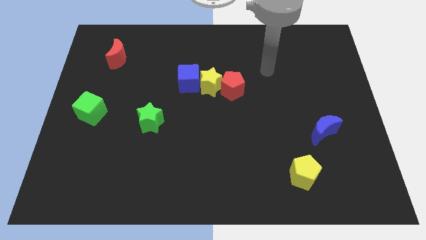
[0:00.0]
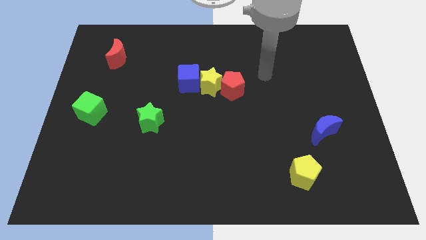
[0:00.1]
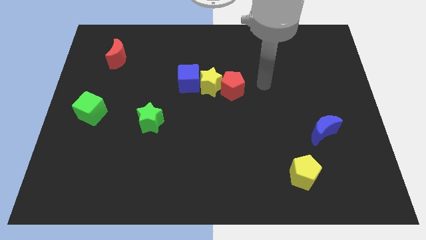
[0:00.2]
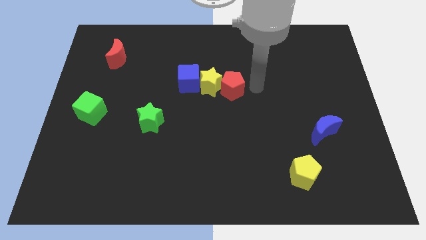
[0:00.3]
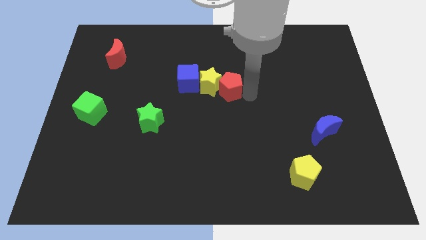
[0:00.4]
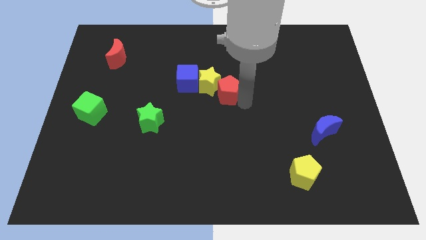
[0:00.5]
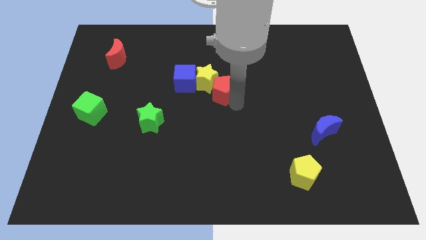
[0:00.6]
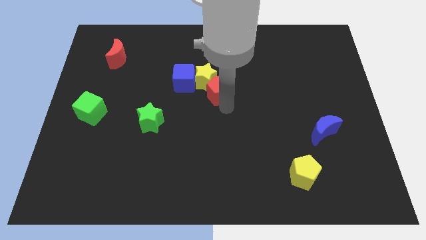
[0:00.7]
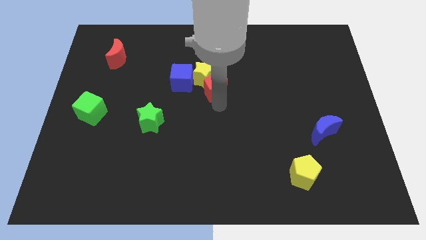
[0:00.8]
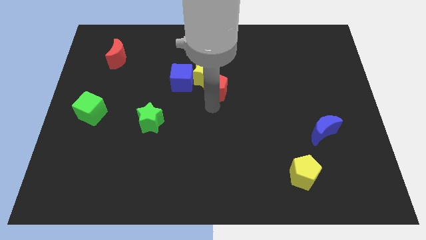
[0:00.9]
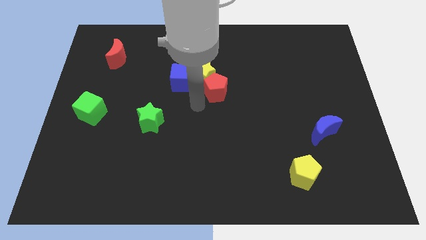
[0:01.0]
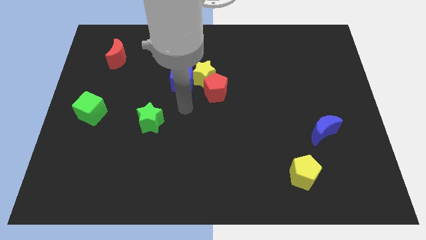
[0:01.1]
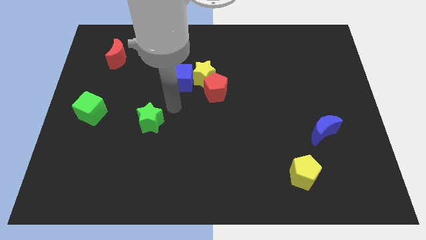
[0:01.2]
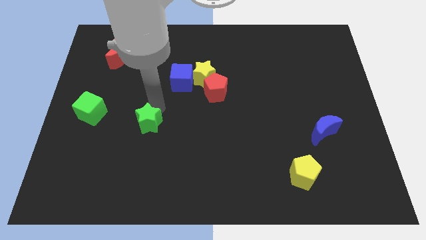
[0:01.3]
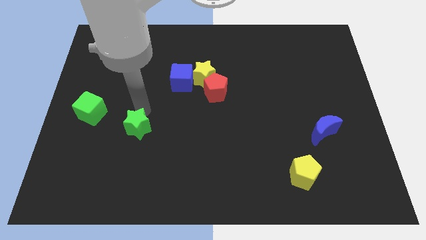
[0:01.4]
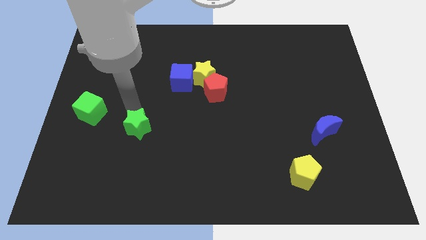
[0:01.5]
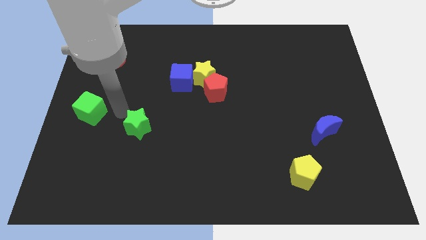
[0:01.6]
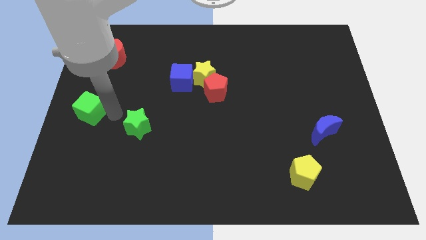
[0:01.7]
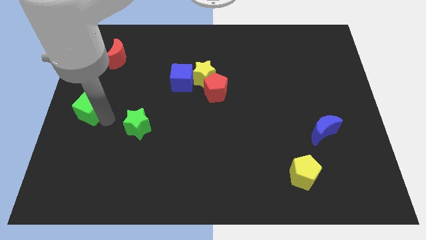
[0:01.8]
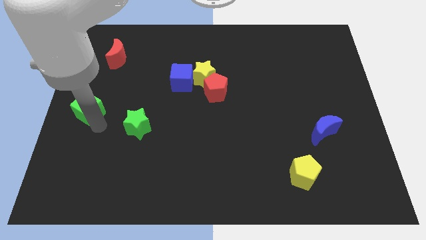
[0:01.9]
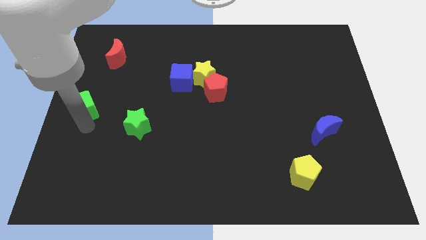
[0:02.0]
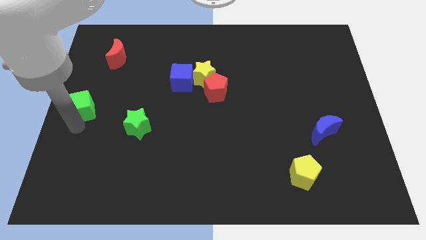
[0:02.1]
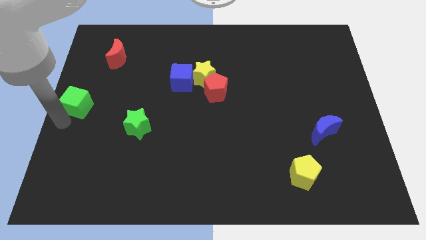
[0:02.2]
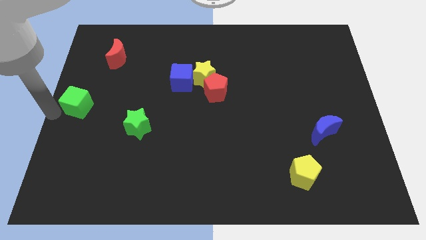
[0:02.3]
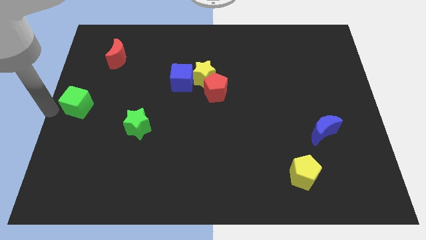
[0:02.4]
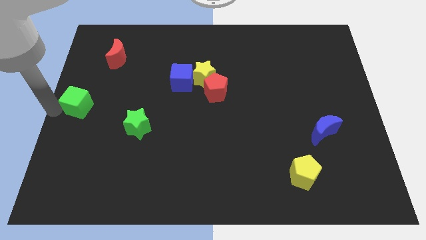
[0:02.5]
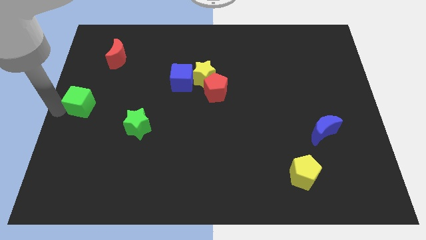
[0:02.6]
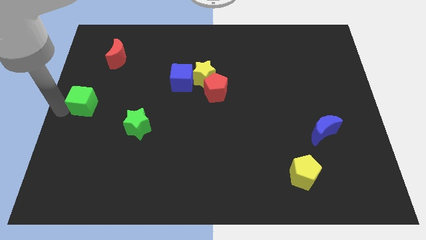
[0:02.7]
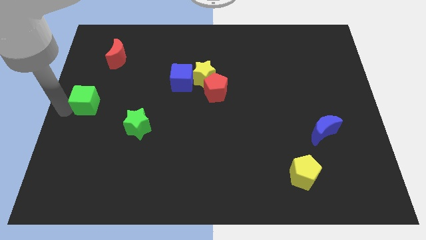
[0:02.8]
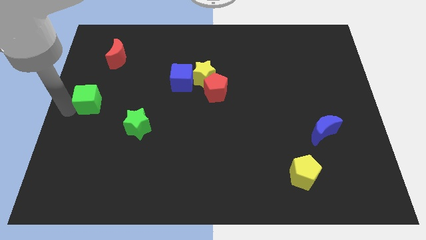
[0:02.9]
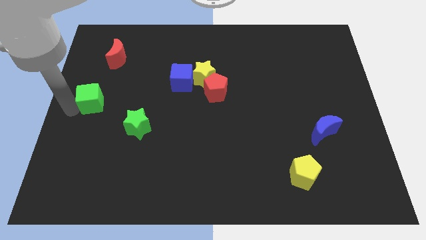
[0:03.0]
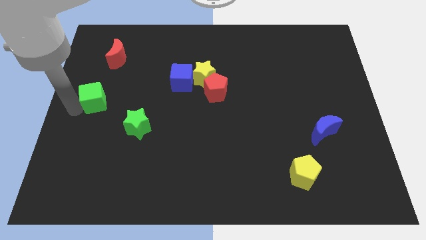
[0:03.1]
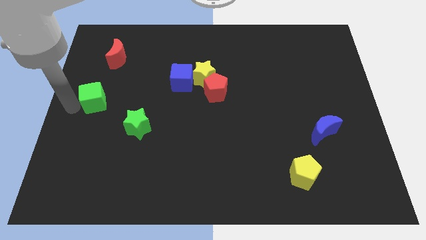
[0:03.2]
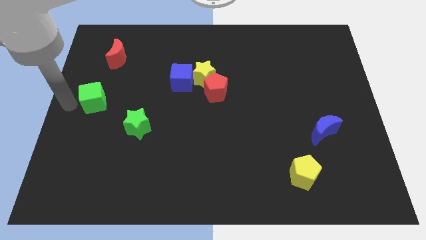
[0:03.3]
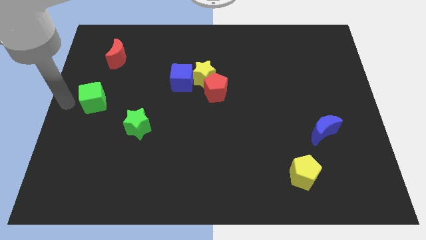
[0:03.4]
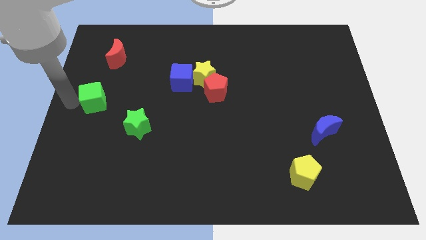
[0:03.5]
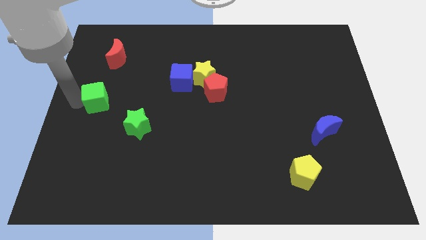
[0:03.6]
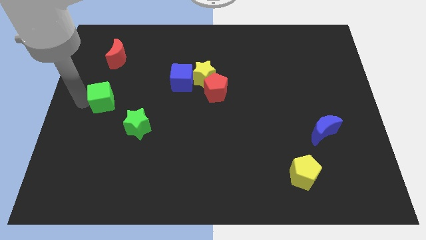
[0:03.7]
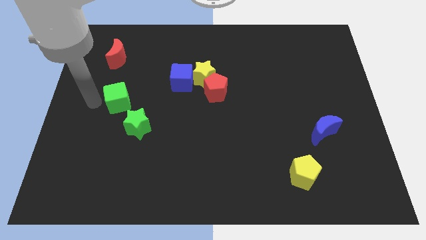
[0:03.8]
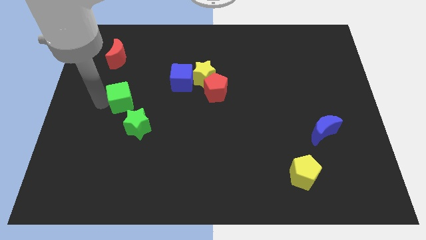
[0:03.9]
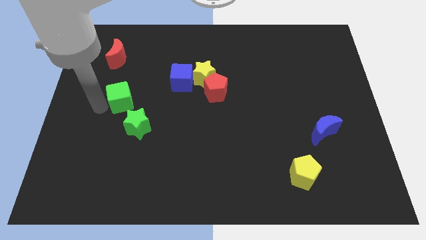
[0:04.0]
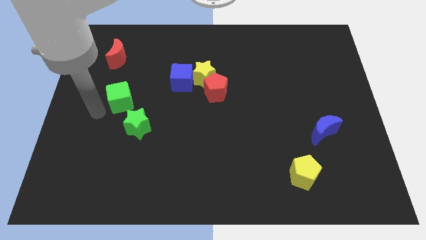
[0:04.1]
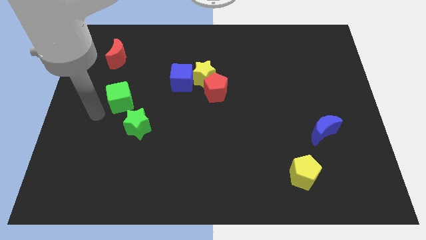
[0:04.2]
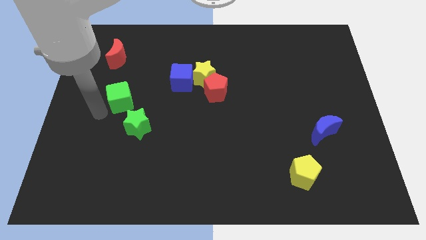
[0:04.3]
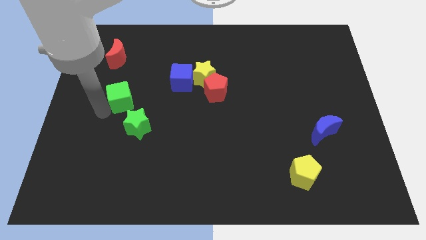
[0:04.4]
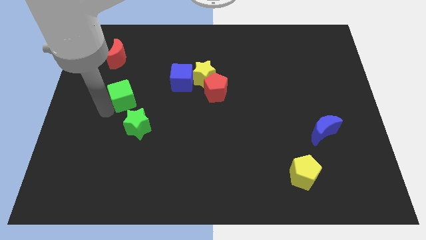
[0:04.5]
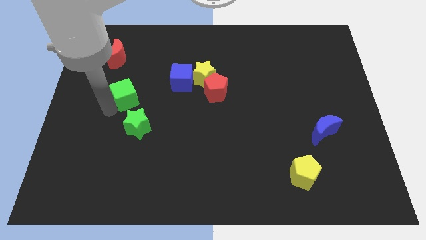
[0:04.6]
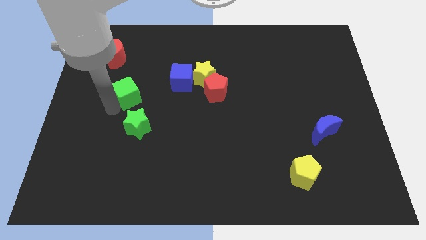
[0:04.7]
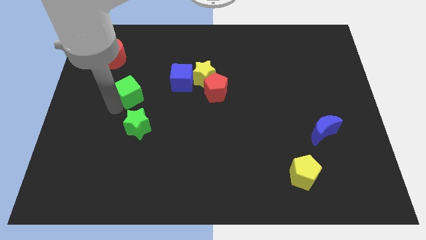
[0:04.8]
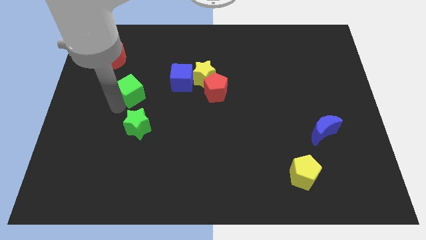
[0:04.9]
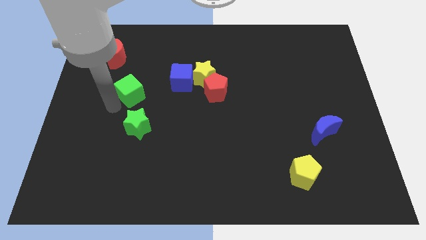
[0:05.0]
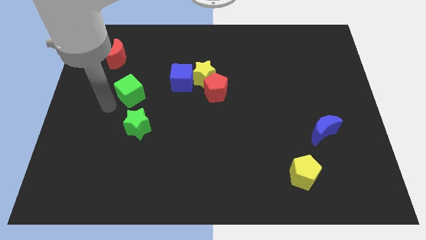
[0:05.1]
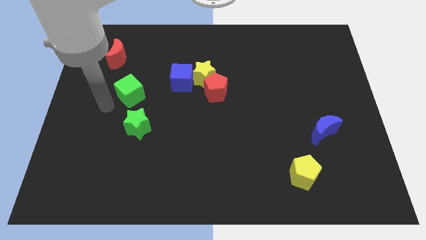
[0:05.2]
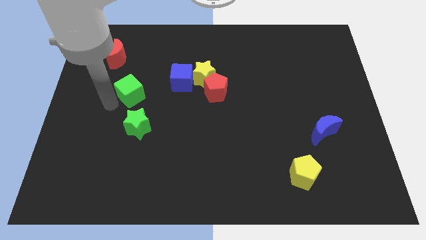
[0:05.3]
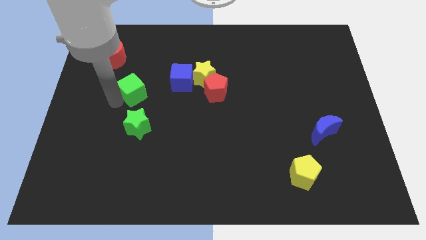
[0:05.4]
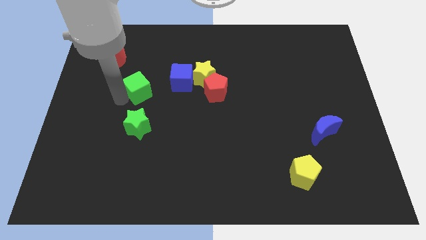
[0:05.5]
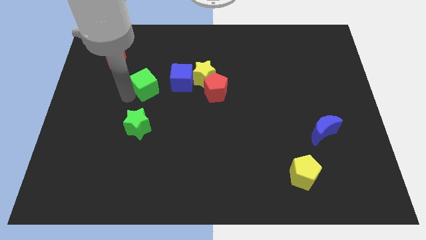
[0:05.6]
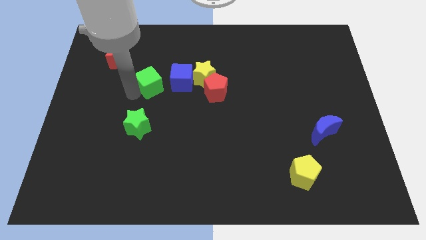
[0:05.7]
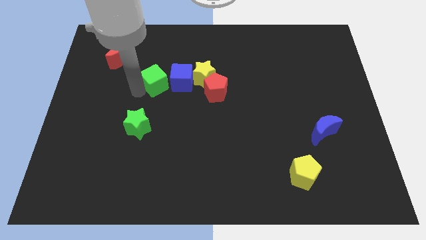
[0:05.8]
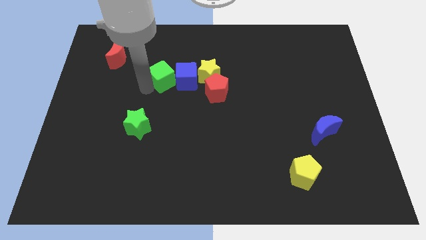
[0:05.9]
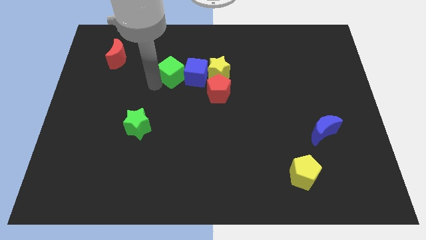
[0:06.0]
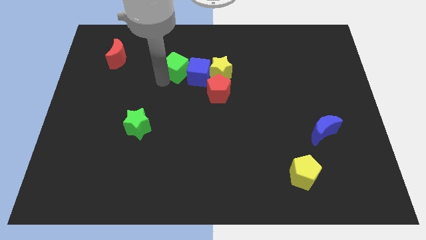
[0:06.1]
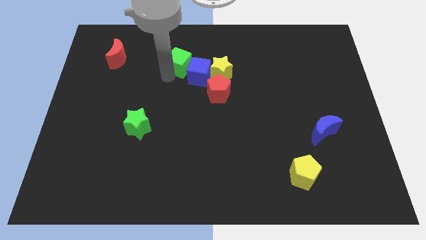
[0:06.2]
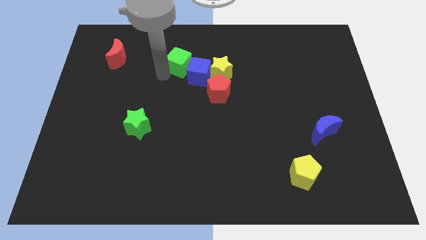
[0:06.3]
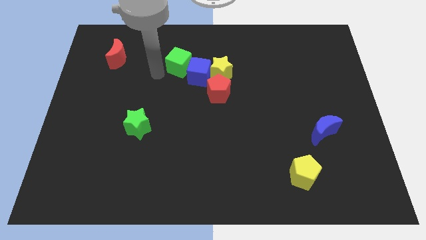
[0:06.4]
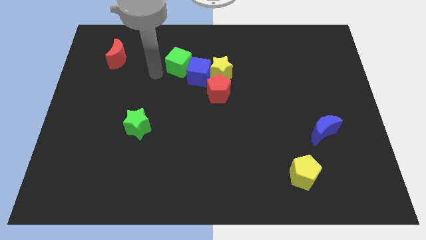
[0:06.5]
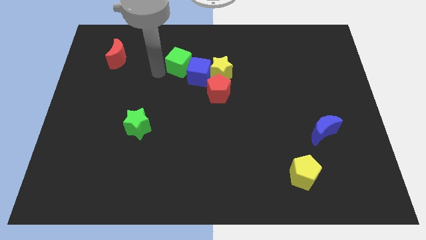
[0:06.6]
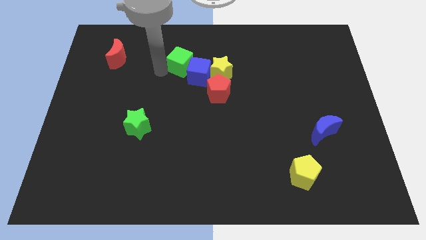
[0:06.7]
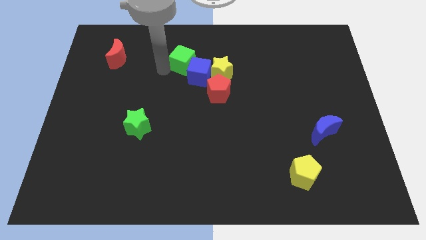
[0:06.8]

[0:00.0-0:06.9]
move the green cube diagonally up and to the left of the yellow star

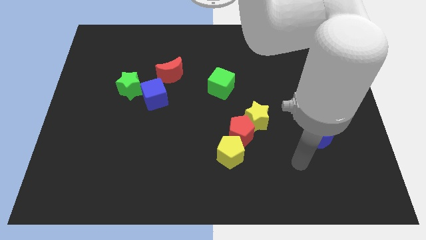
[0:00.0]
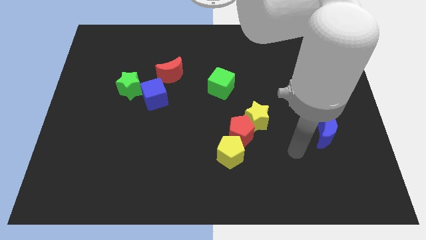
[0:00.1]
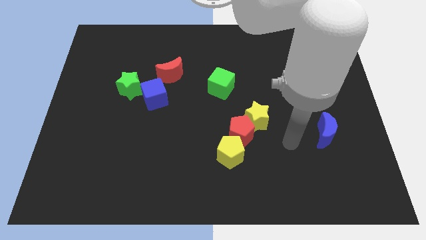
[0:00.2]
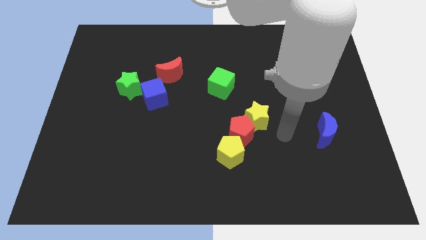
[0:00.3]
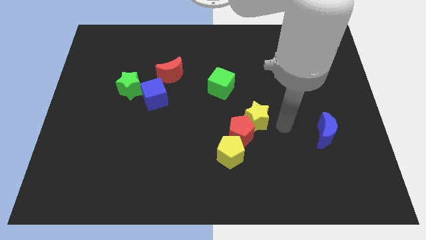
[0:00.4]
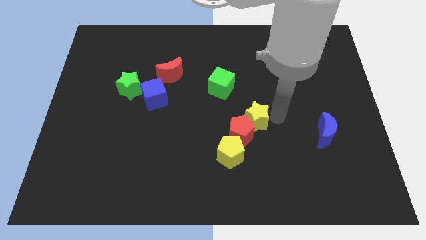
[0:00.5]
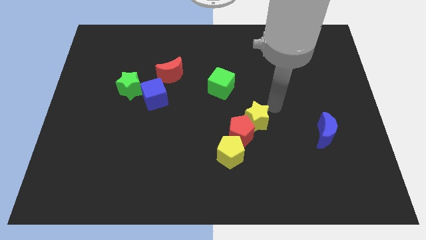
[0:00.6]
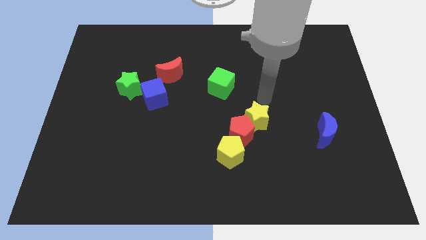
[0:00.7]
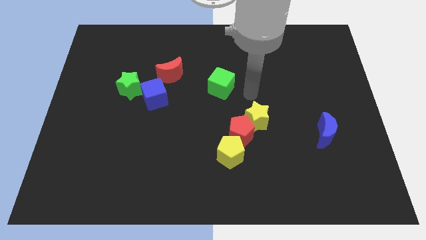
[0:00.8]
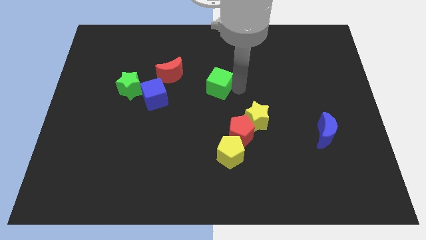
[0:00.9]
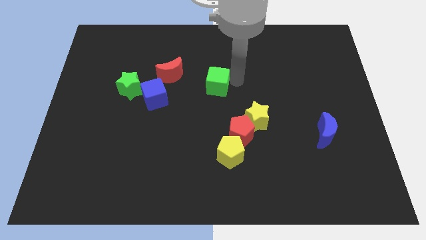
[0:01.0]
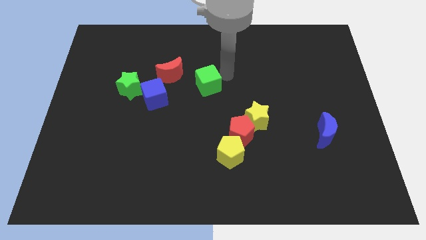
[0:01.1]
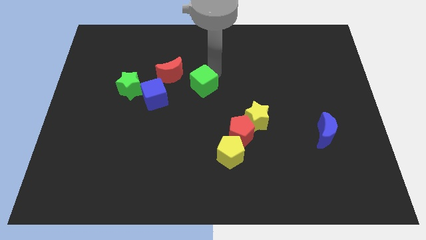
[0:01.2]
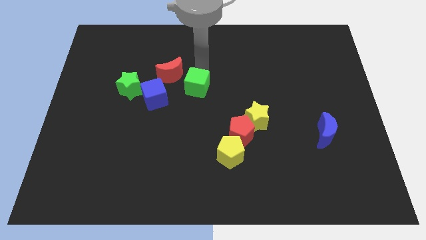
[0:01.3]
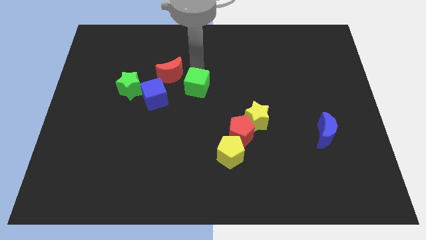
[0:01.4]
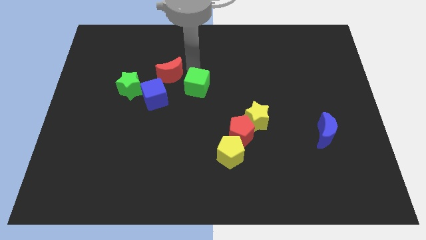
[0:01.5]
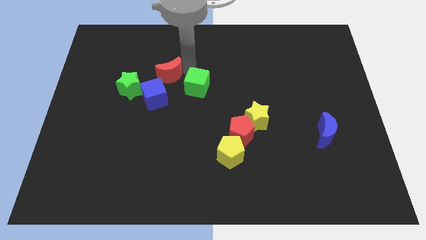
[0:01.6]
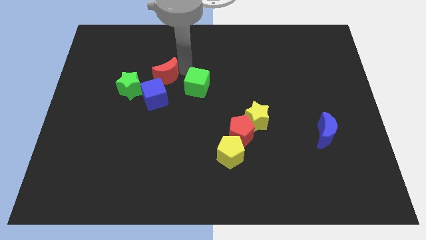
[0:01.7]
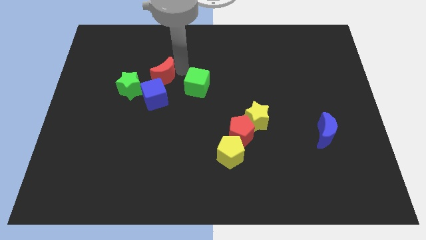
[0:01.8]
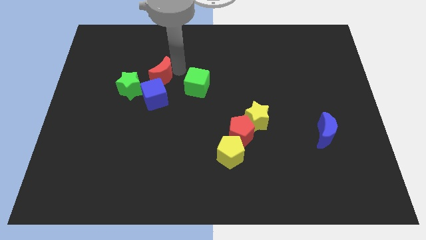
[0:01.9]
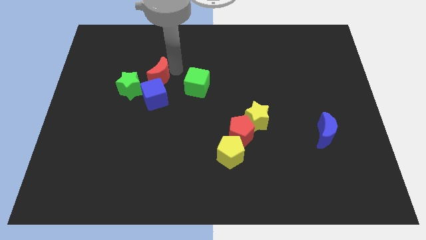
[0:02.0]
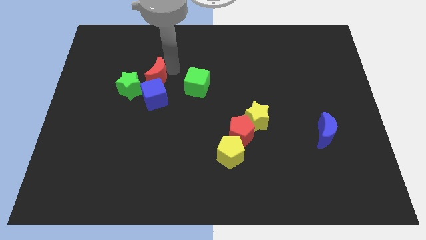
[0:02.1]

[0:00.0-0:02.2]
slide the red moon to the top left side of the blue cube
